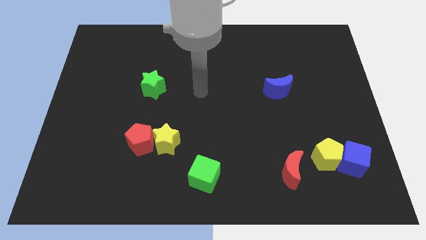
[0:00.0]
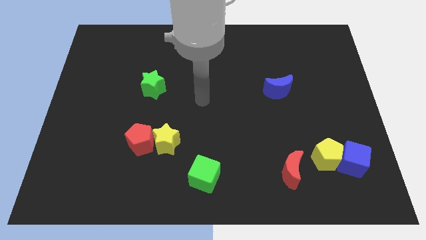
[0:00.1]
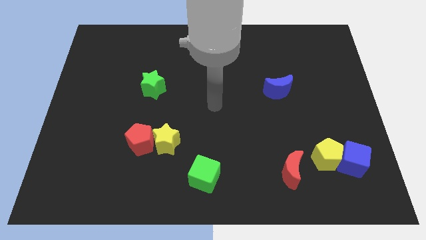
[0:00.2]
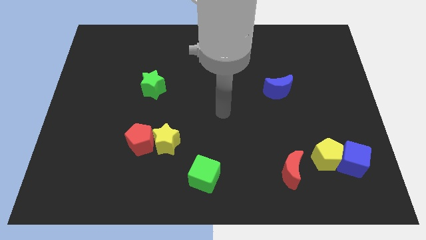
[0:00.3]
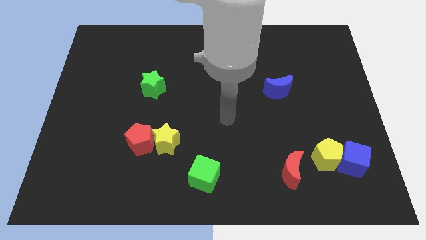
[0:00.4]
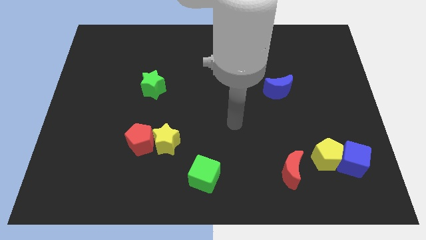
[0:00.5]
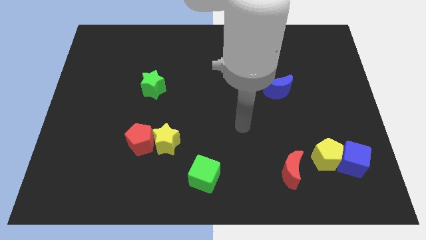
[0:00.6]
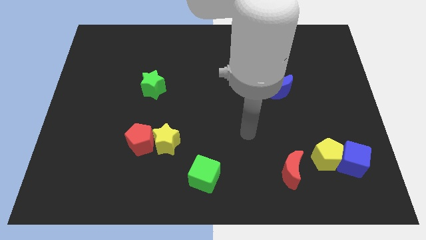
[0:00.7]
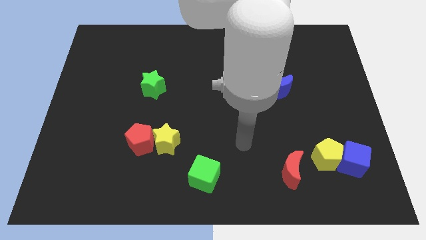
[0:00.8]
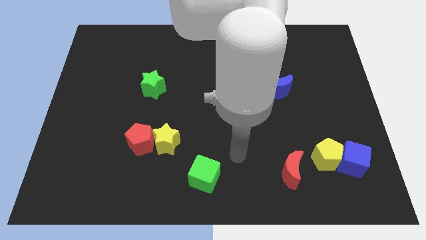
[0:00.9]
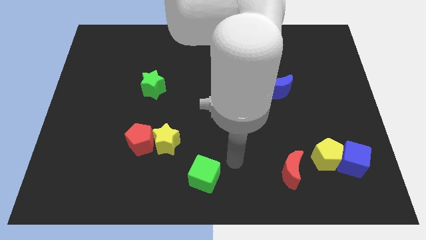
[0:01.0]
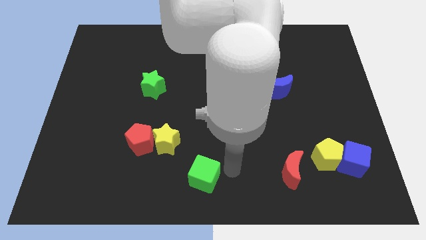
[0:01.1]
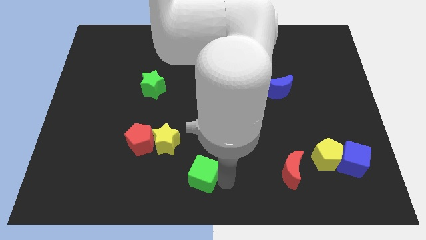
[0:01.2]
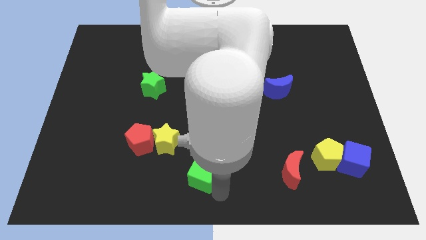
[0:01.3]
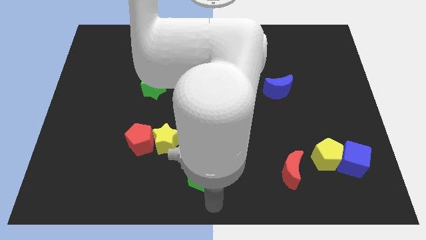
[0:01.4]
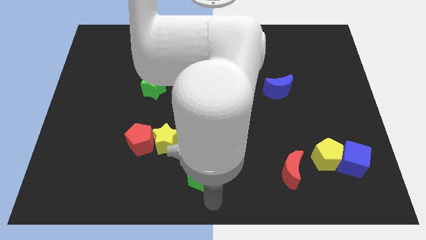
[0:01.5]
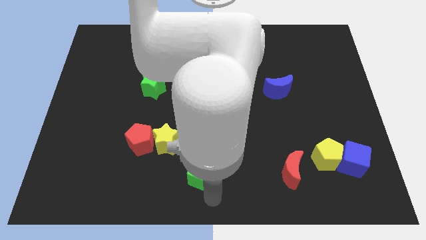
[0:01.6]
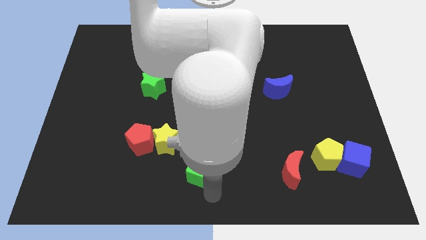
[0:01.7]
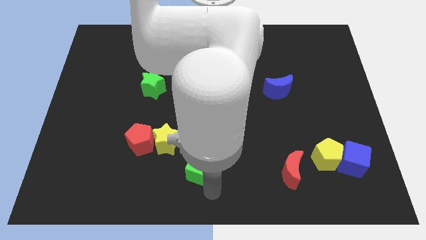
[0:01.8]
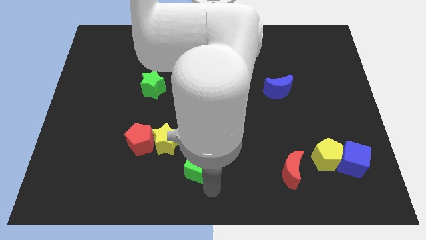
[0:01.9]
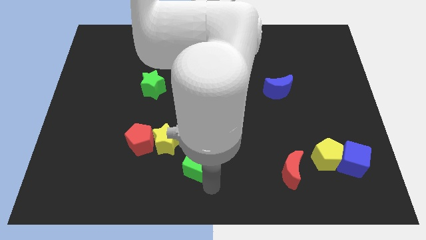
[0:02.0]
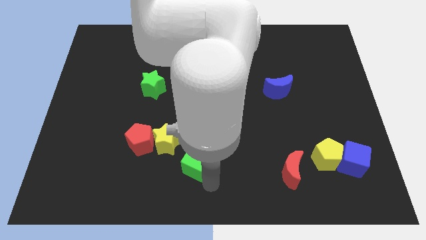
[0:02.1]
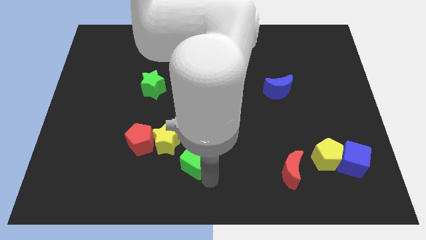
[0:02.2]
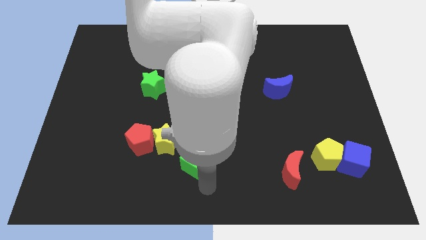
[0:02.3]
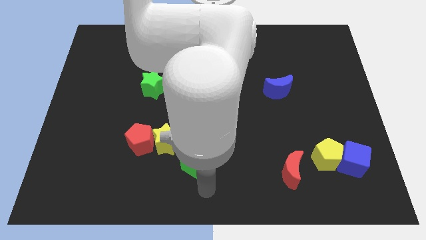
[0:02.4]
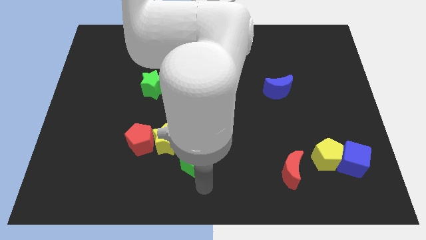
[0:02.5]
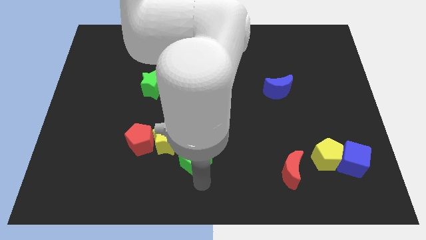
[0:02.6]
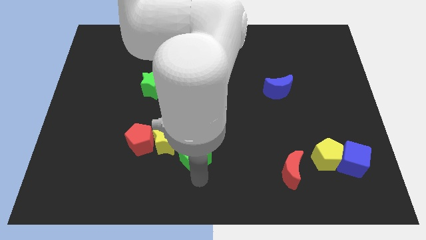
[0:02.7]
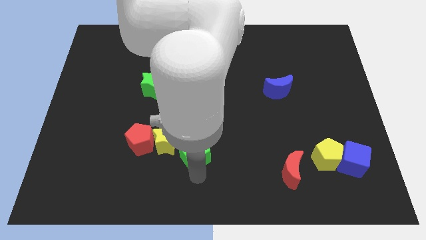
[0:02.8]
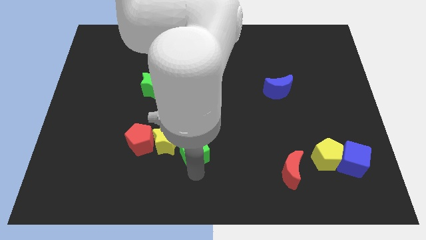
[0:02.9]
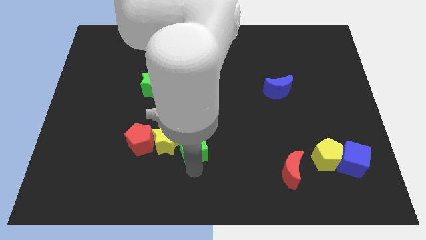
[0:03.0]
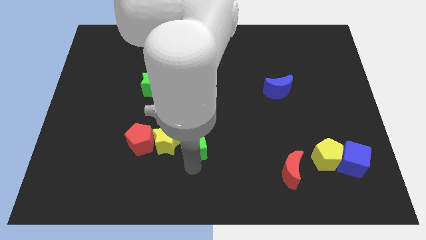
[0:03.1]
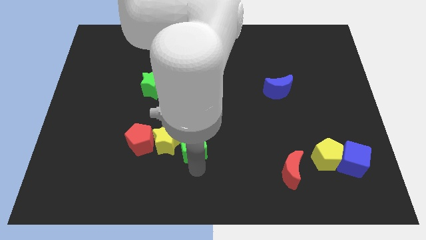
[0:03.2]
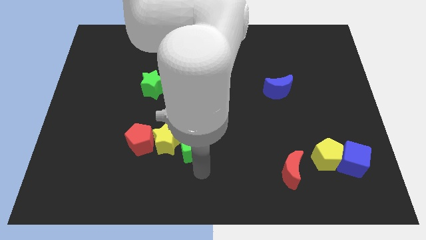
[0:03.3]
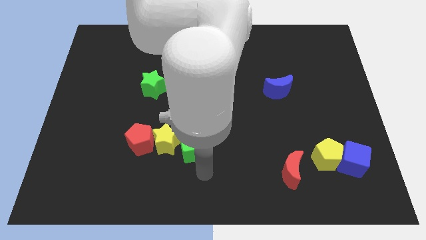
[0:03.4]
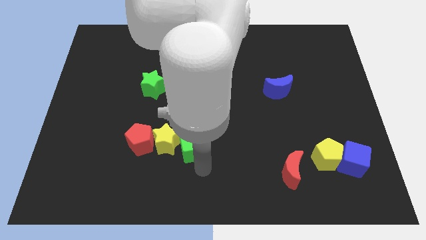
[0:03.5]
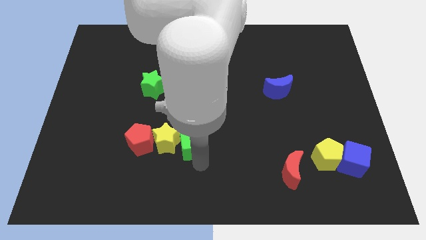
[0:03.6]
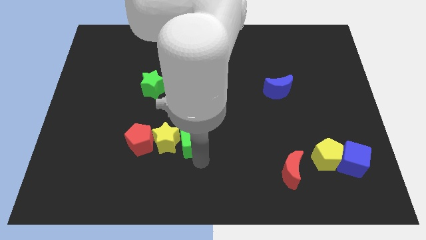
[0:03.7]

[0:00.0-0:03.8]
slightly move the green cube diagonally up and to the left

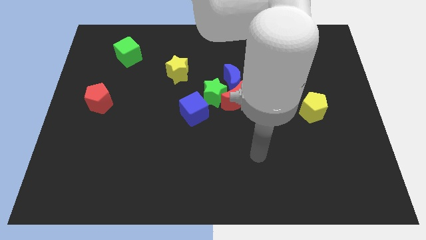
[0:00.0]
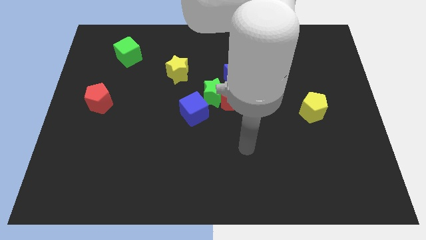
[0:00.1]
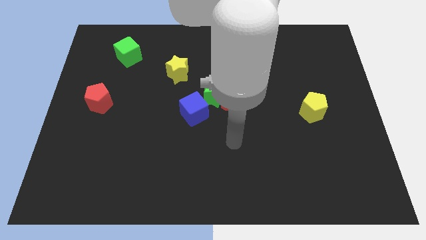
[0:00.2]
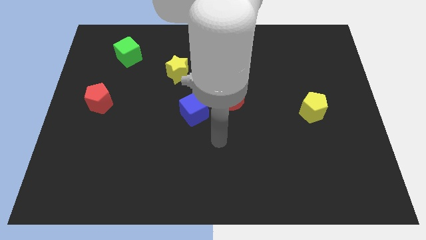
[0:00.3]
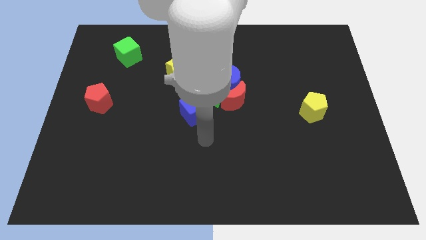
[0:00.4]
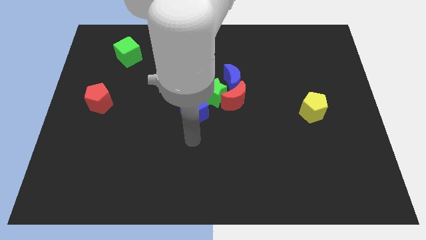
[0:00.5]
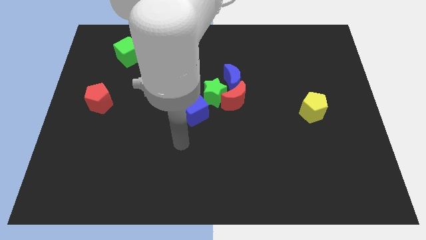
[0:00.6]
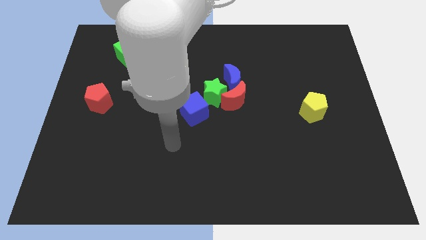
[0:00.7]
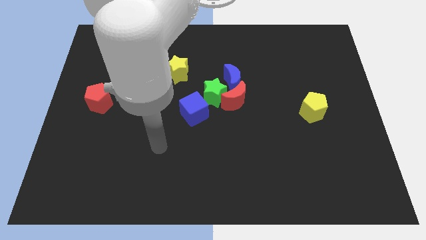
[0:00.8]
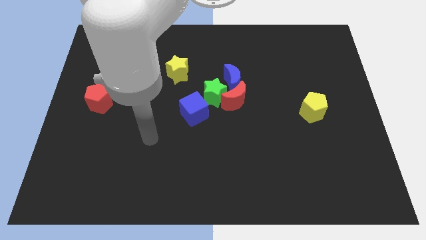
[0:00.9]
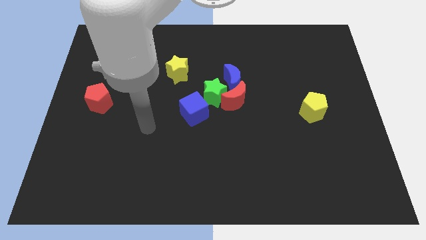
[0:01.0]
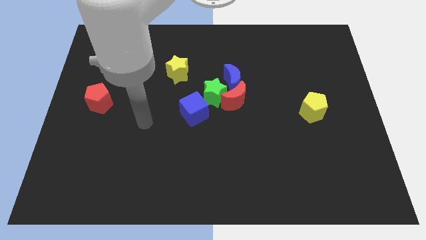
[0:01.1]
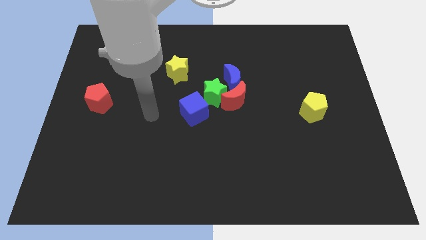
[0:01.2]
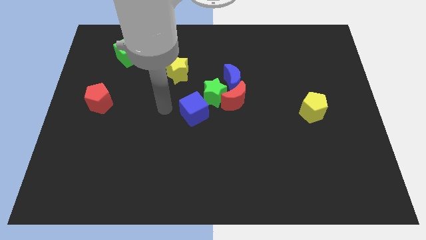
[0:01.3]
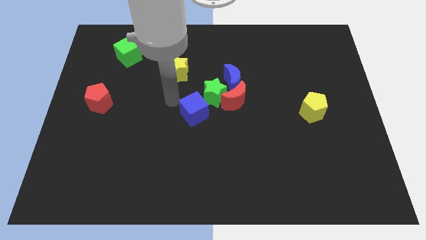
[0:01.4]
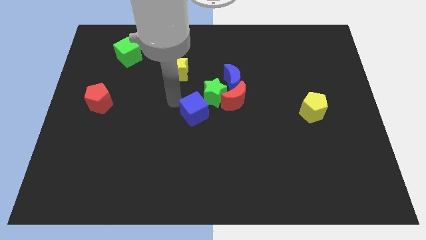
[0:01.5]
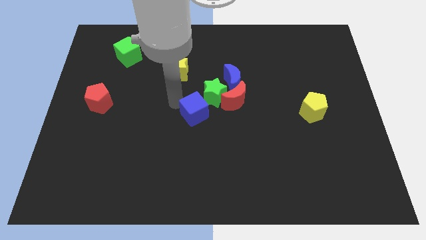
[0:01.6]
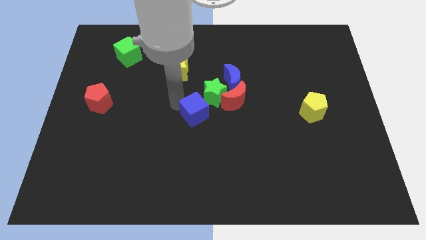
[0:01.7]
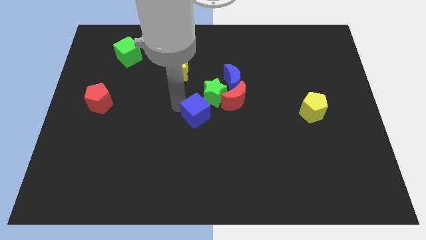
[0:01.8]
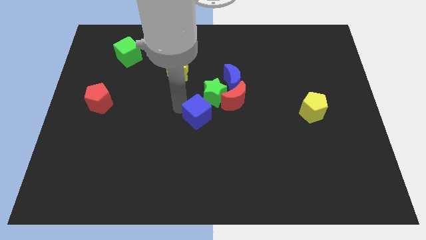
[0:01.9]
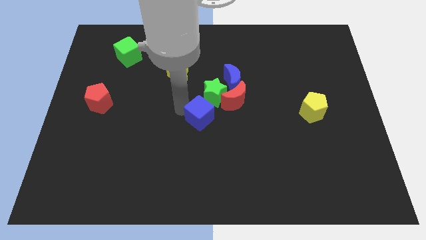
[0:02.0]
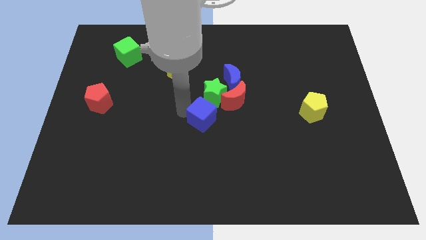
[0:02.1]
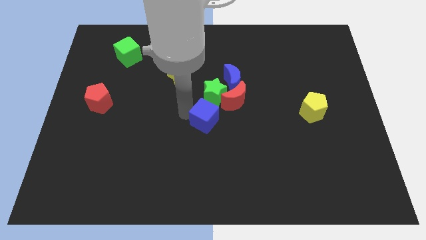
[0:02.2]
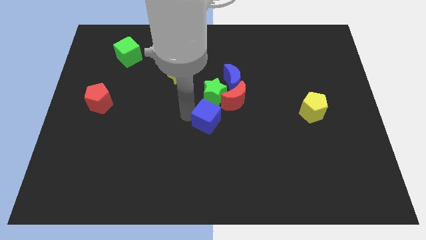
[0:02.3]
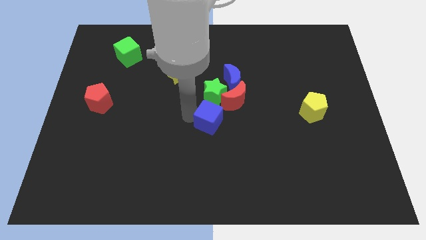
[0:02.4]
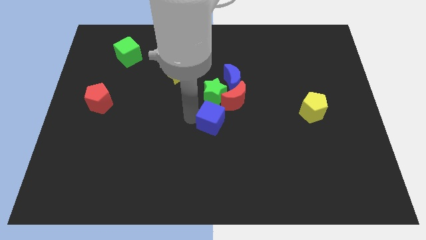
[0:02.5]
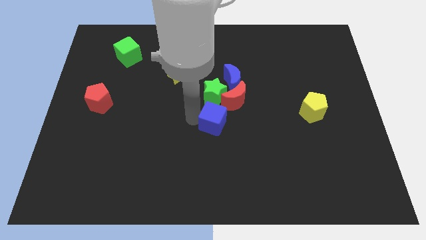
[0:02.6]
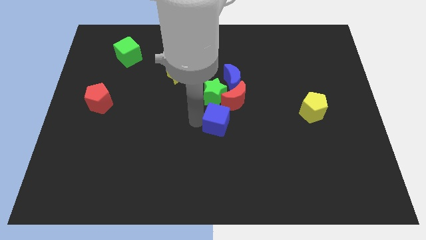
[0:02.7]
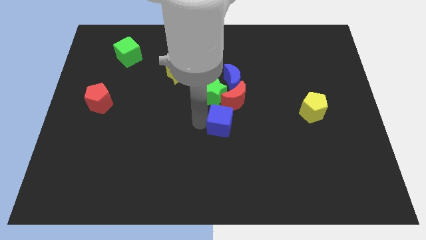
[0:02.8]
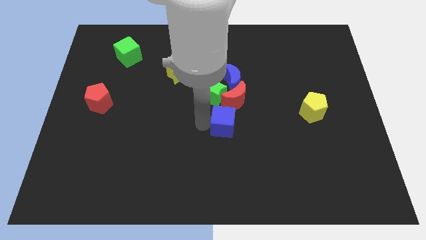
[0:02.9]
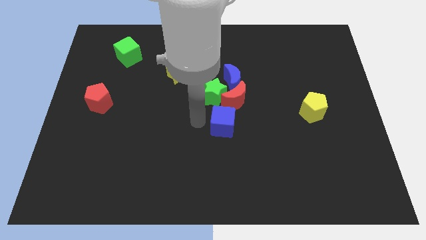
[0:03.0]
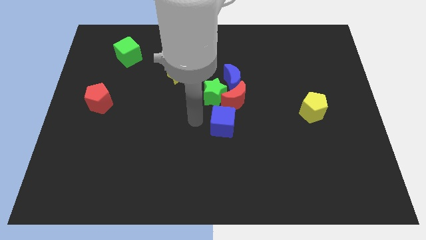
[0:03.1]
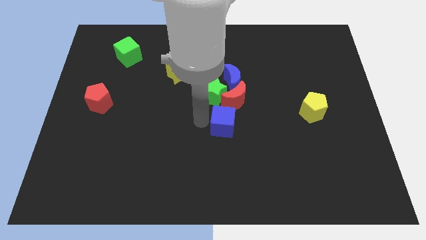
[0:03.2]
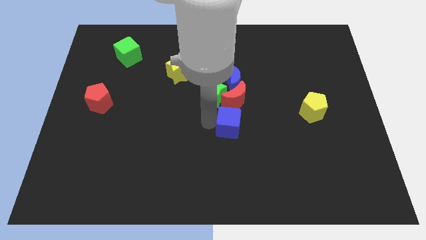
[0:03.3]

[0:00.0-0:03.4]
slightly slide the blue cube right

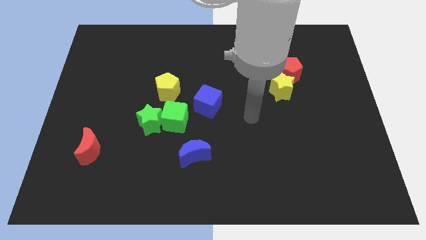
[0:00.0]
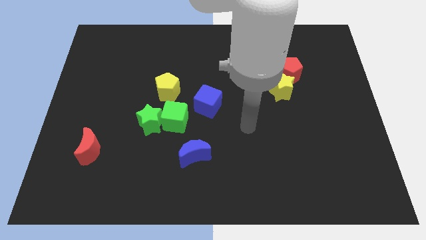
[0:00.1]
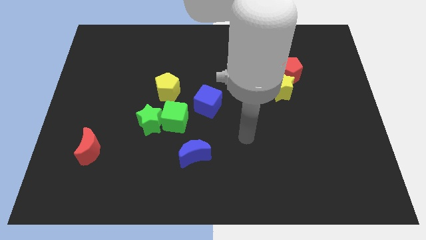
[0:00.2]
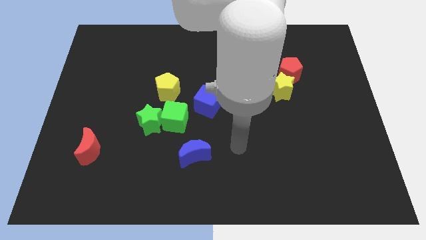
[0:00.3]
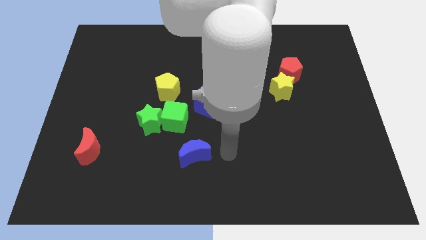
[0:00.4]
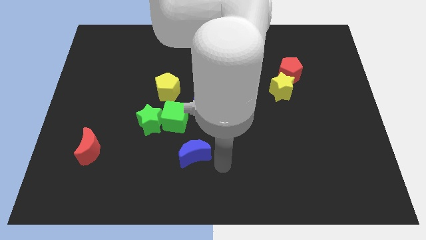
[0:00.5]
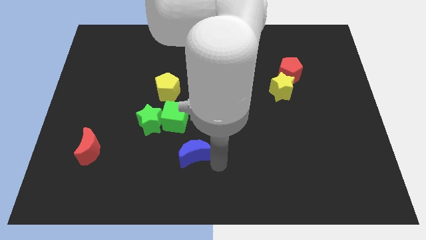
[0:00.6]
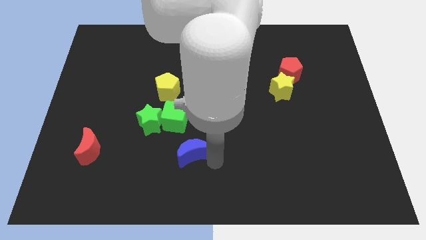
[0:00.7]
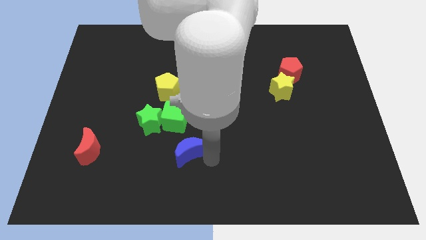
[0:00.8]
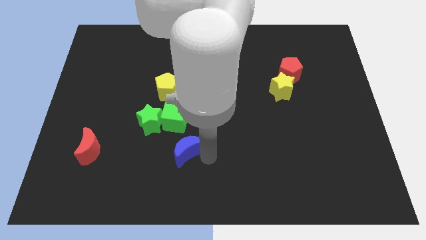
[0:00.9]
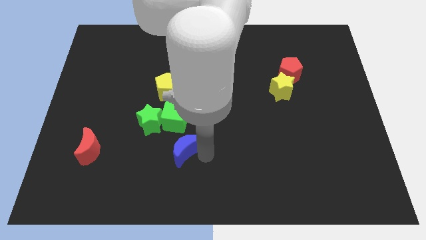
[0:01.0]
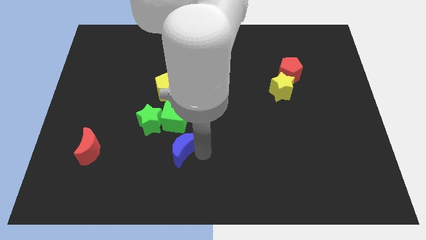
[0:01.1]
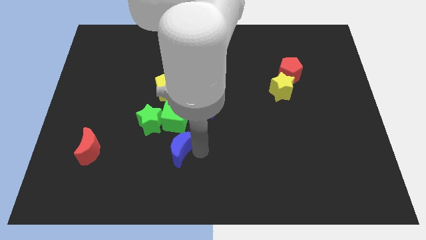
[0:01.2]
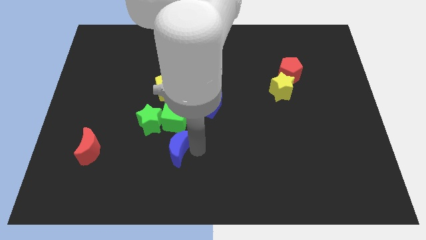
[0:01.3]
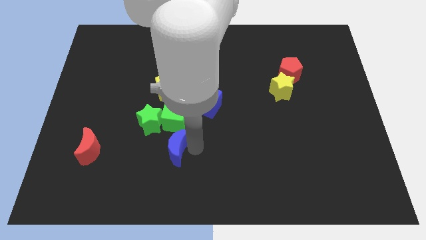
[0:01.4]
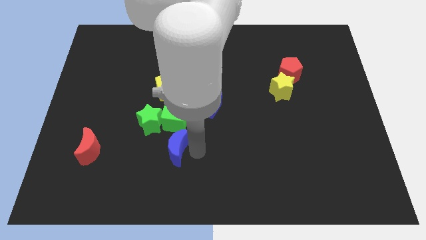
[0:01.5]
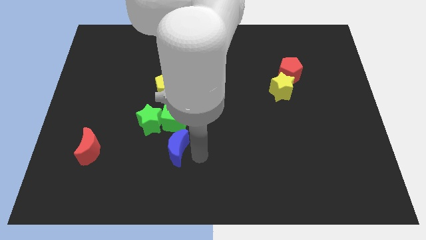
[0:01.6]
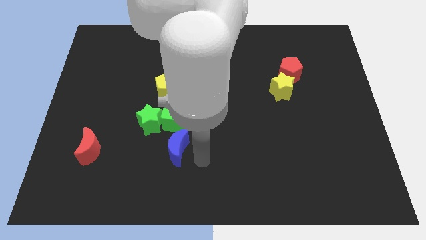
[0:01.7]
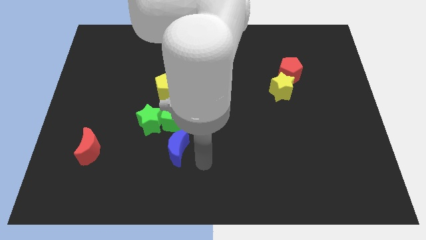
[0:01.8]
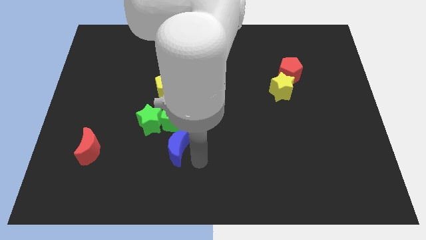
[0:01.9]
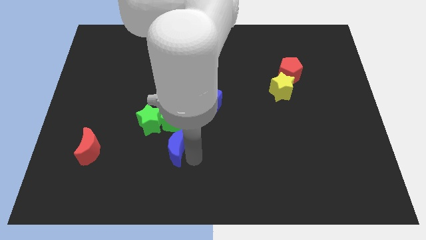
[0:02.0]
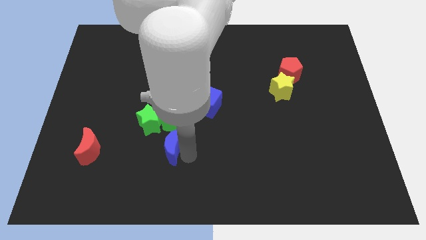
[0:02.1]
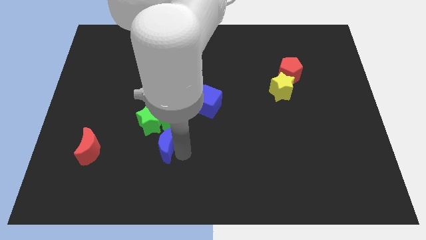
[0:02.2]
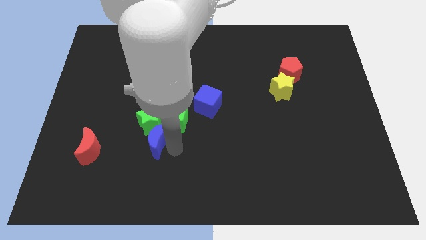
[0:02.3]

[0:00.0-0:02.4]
push the blue moon slightly up and then to the left
